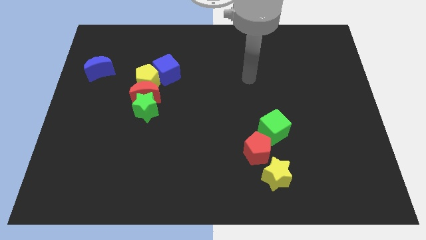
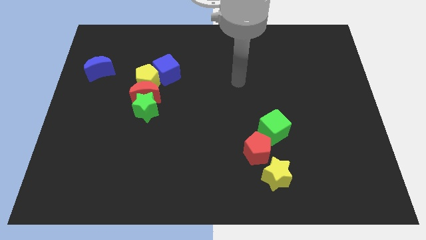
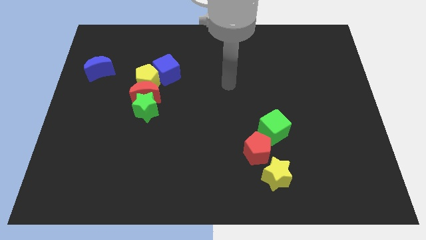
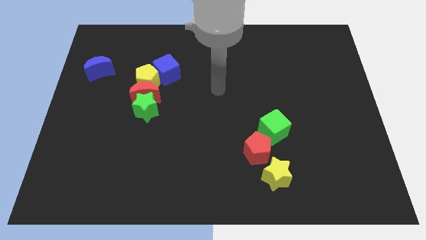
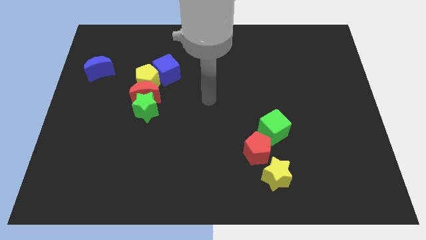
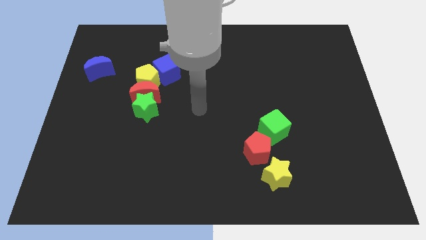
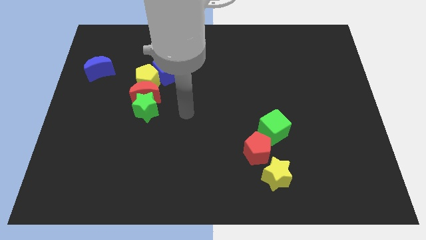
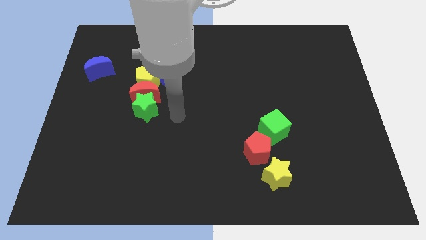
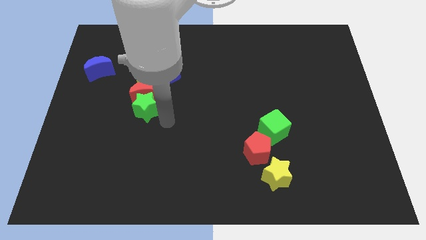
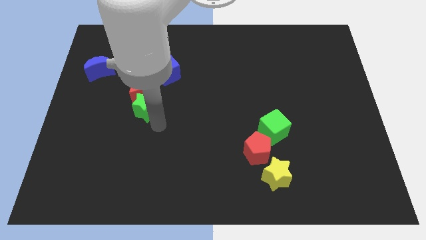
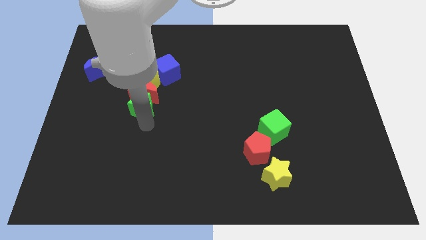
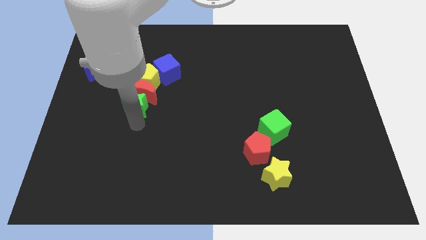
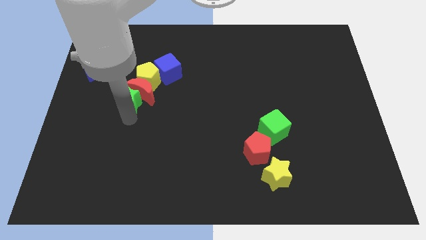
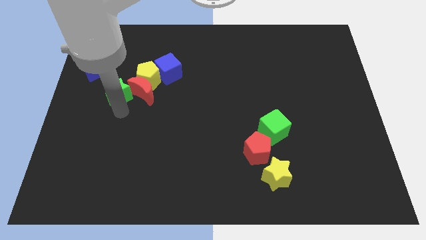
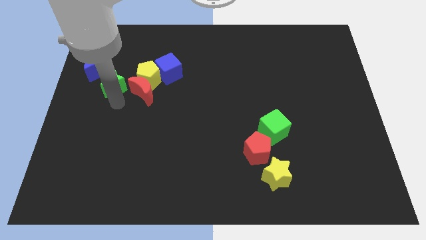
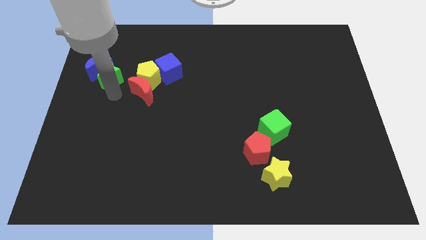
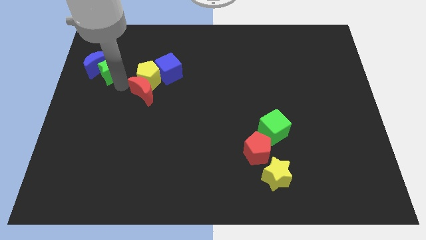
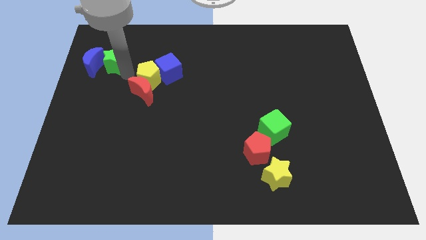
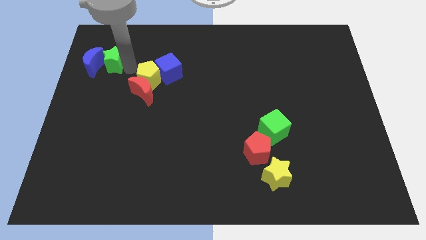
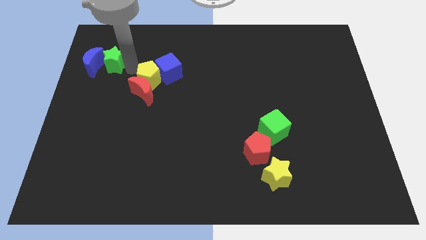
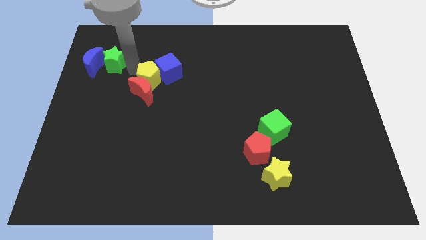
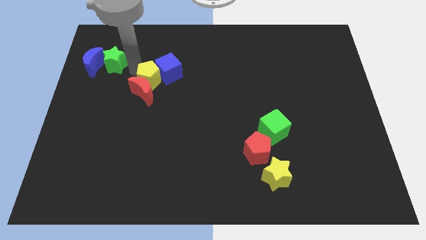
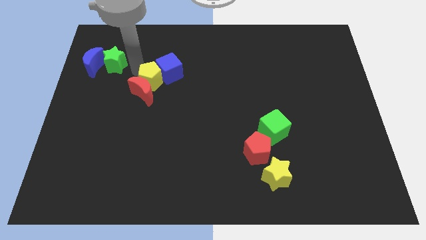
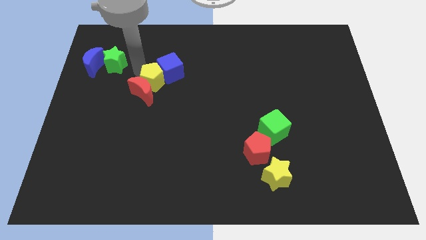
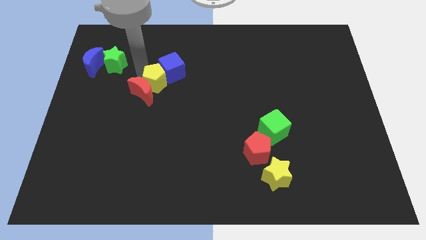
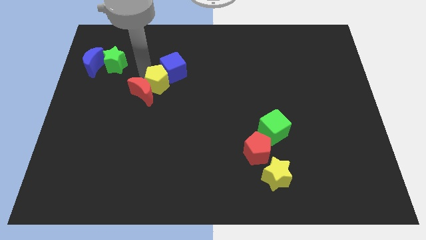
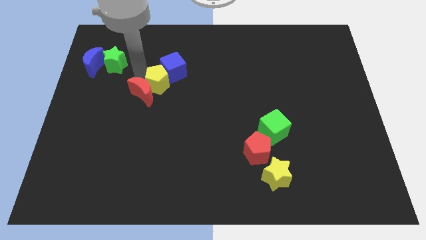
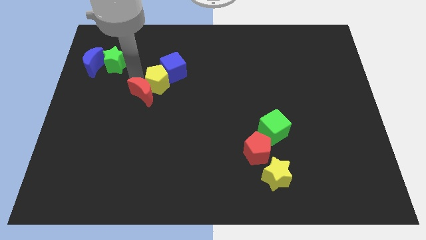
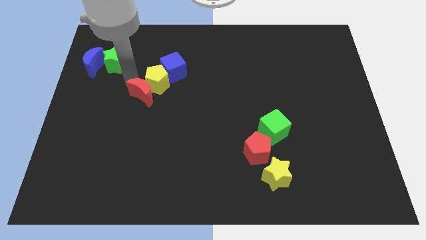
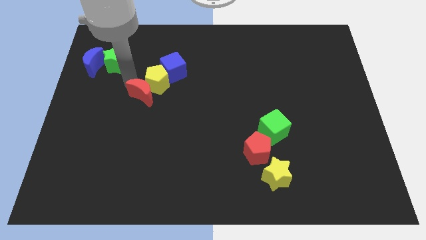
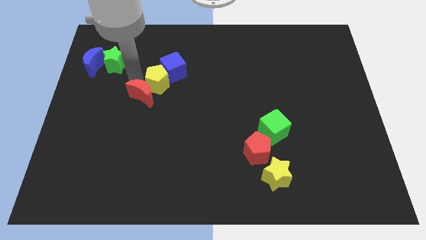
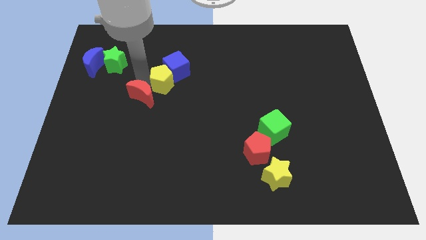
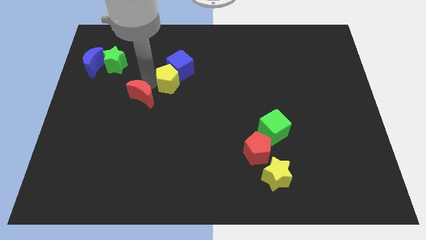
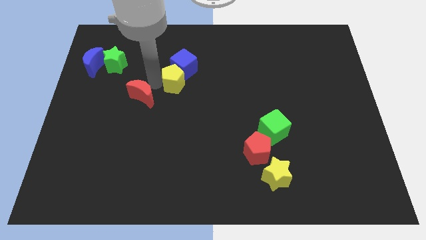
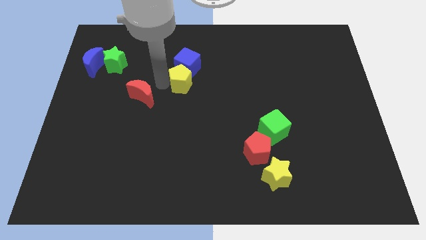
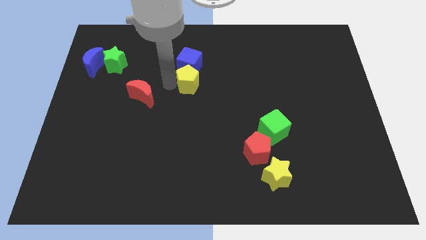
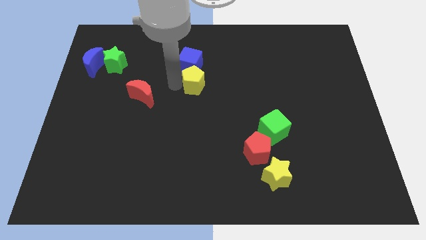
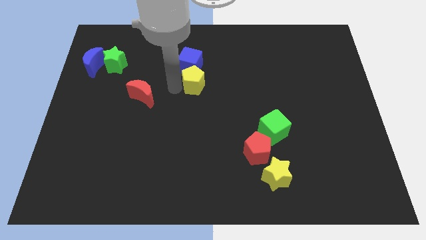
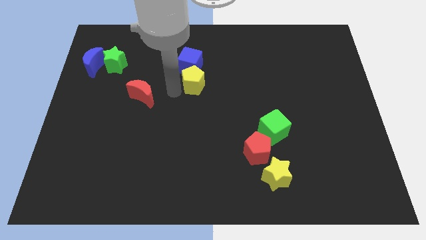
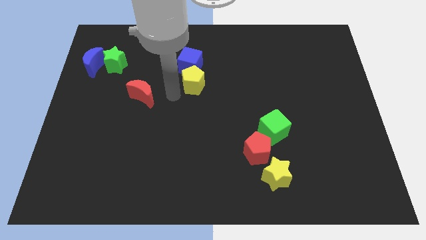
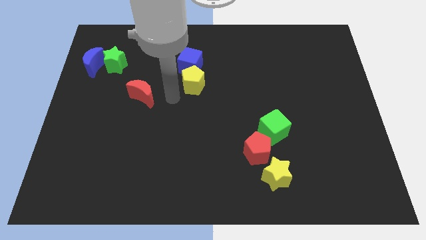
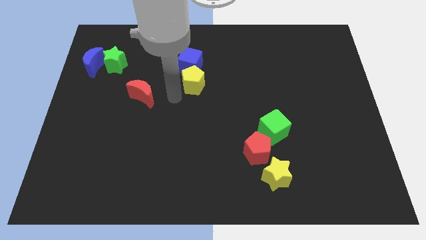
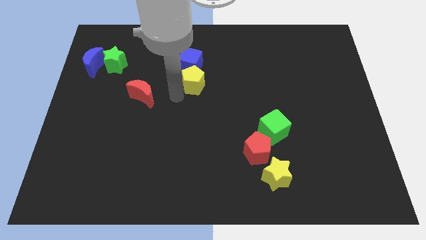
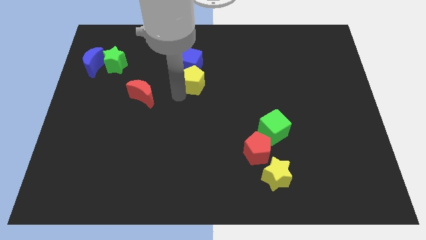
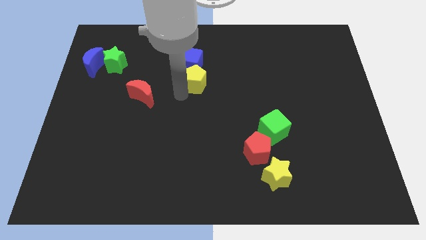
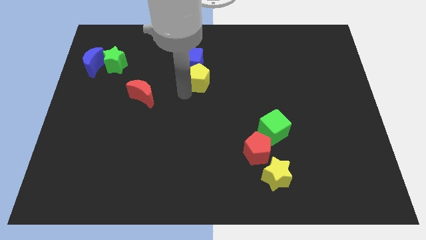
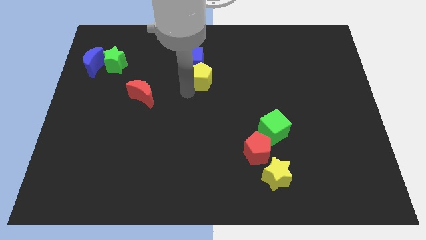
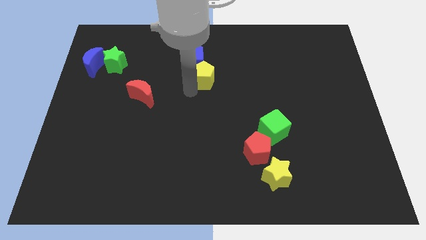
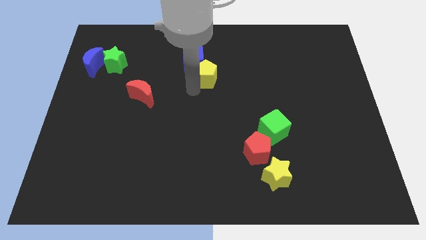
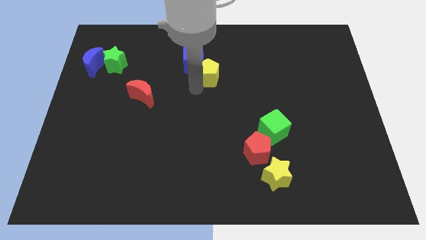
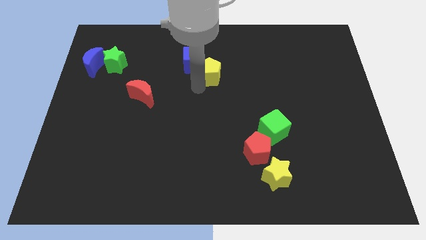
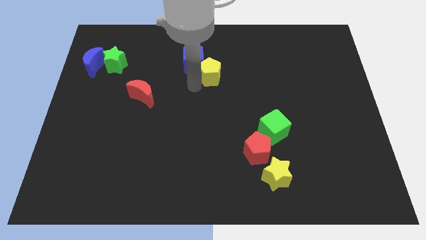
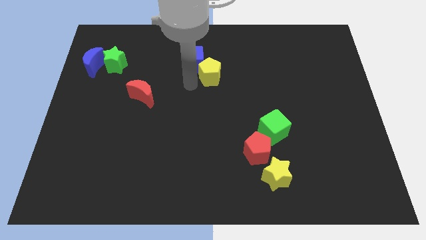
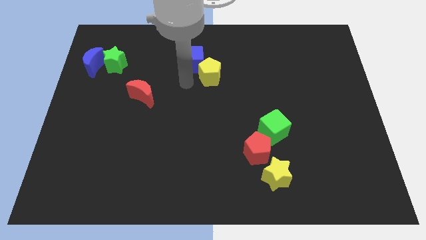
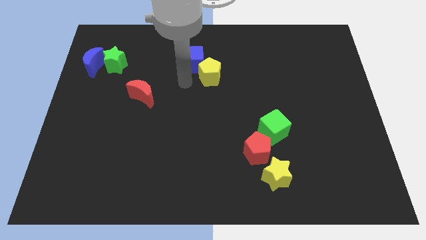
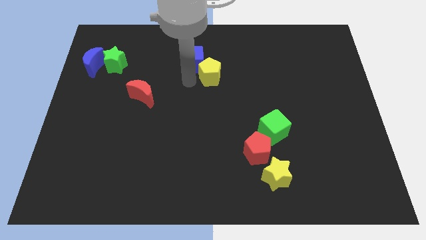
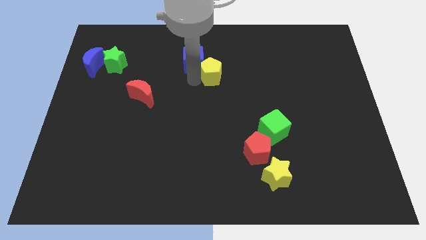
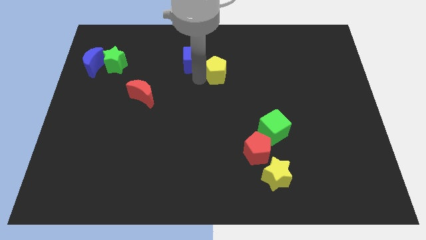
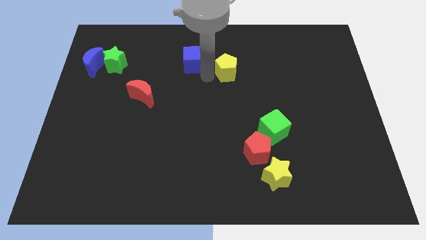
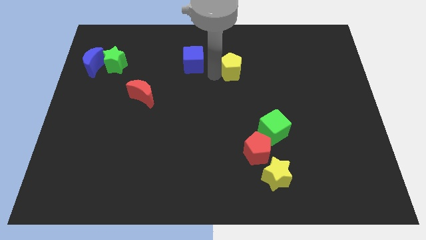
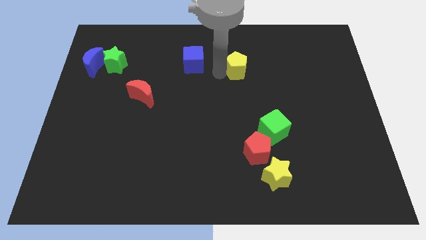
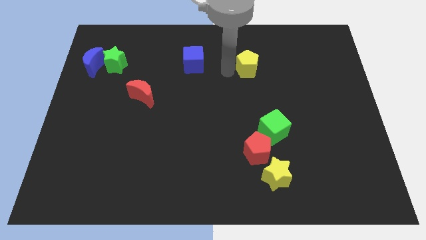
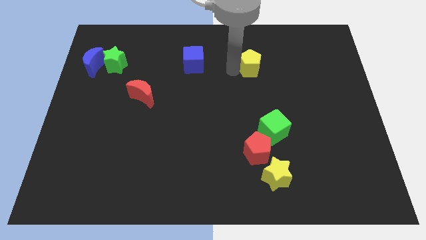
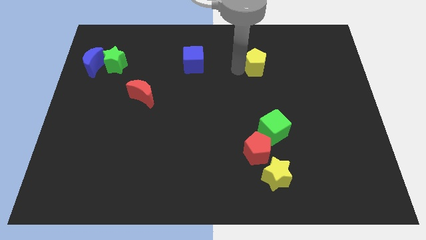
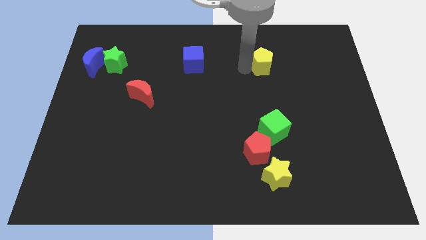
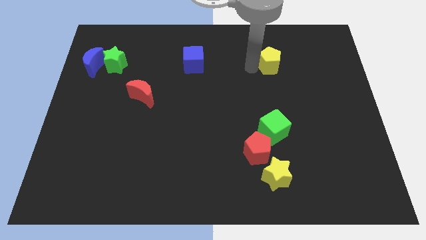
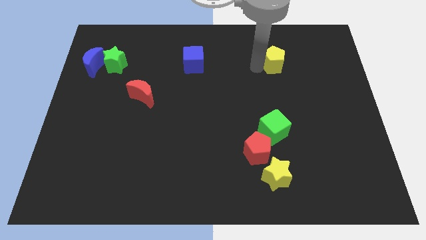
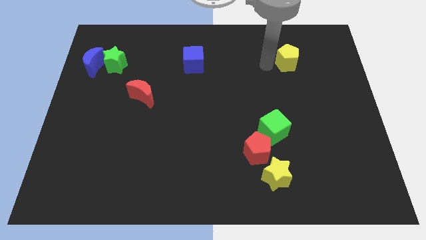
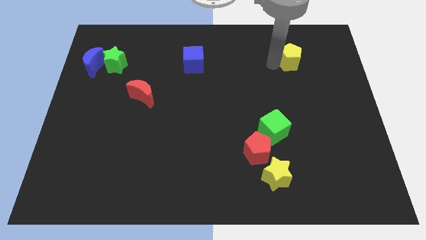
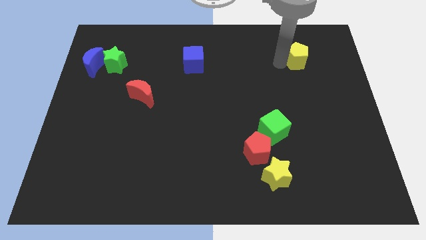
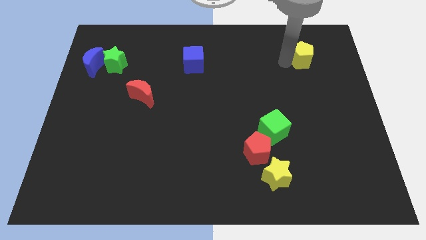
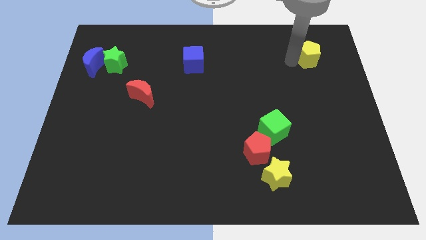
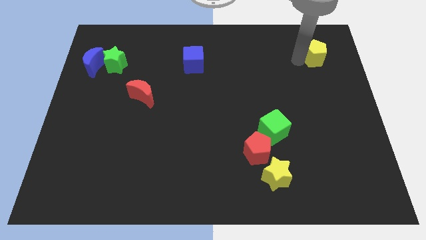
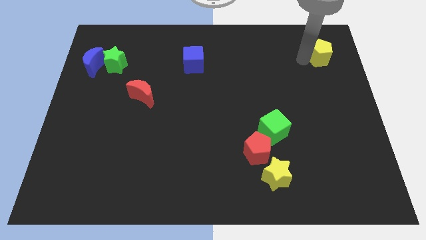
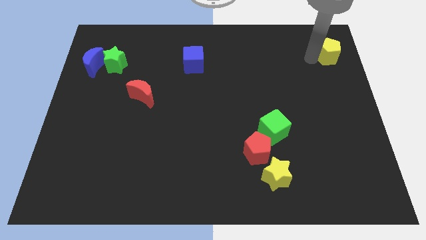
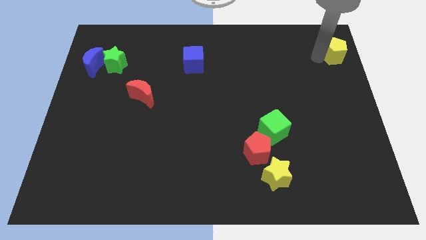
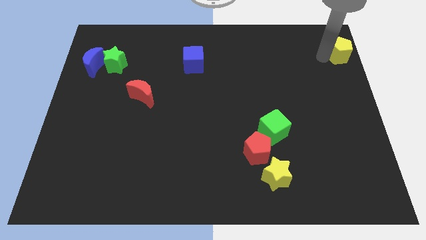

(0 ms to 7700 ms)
slide the yellow pentagon to the top right of the board
